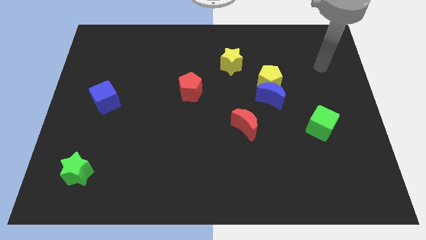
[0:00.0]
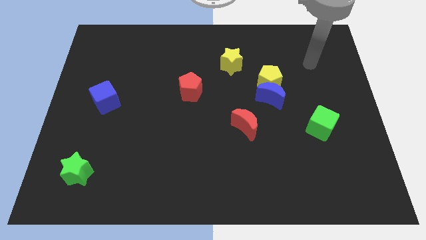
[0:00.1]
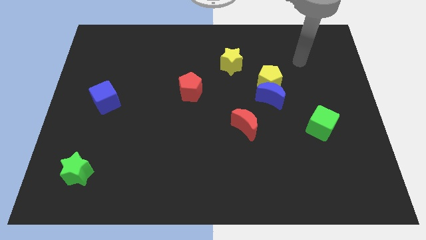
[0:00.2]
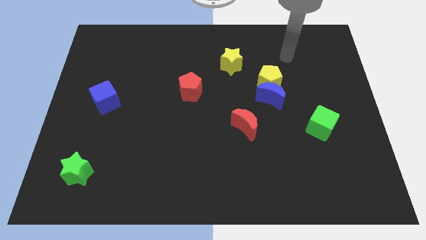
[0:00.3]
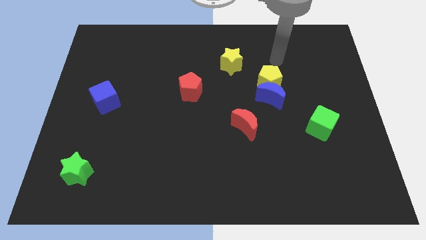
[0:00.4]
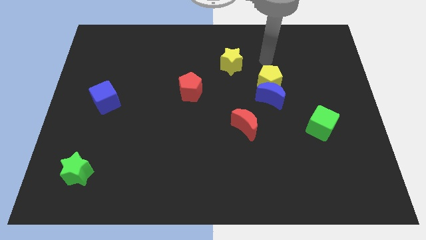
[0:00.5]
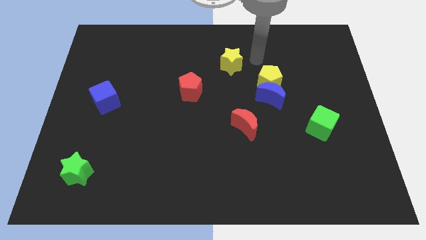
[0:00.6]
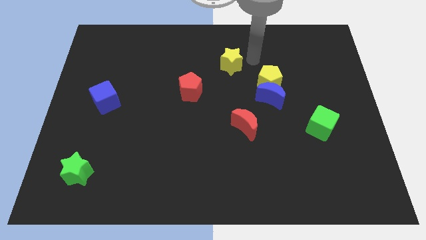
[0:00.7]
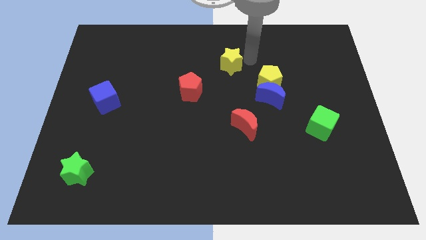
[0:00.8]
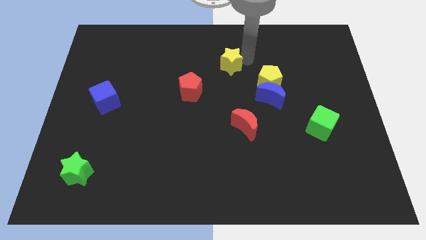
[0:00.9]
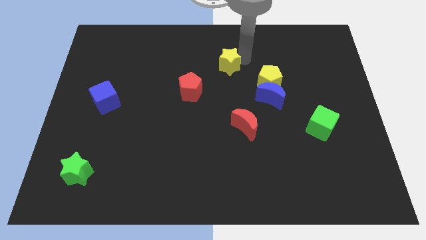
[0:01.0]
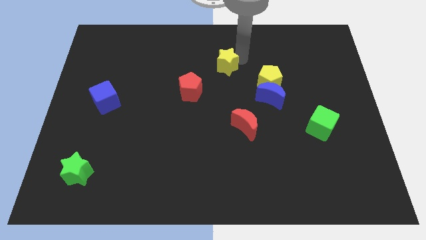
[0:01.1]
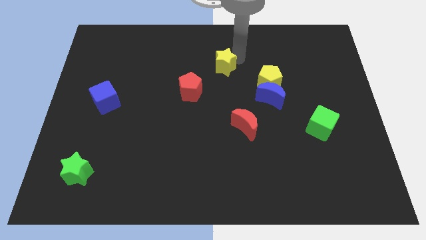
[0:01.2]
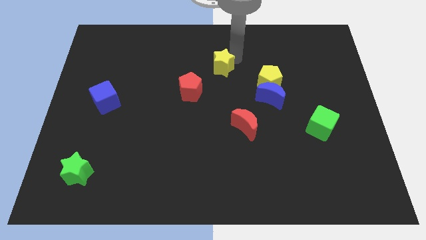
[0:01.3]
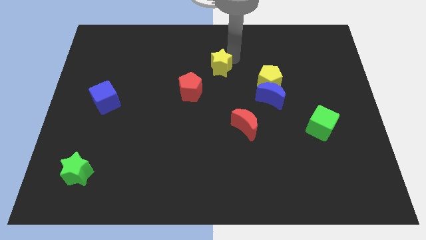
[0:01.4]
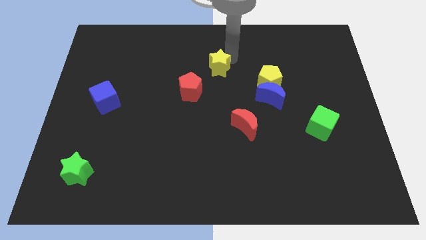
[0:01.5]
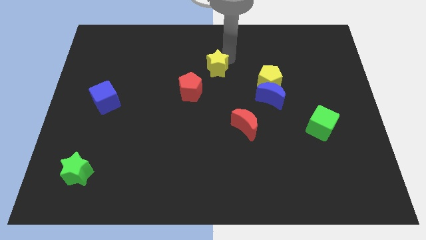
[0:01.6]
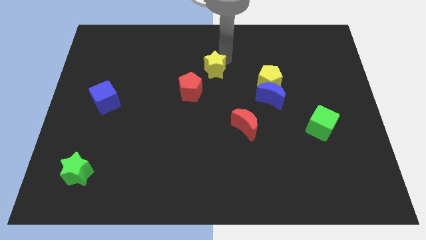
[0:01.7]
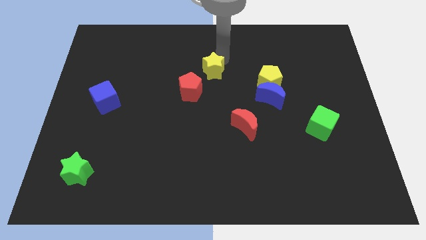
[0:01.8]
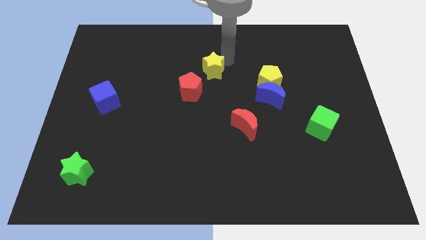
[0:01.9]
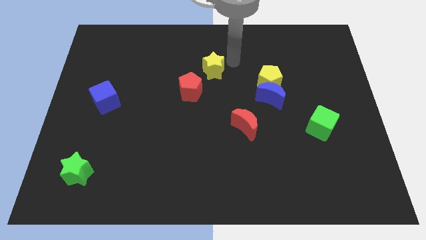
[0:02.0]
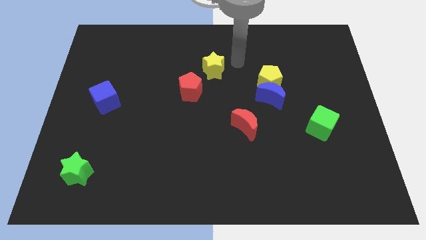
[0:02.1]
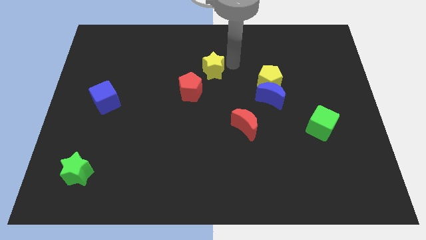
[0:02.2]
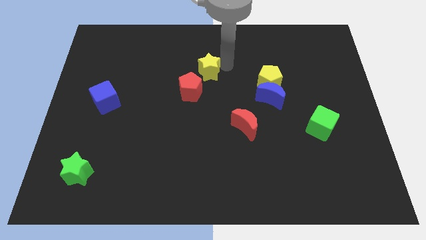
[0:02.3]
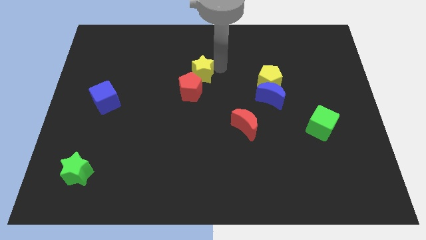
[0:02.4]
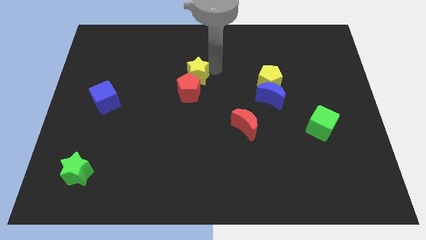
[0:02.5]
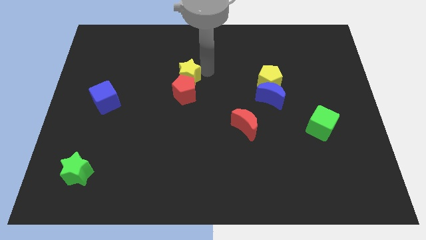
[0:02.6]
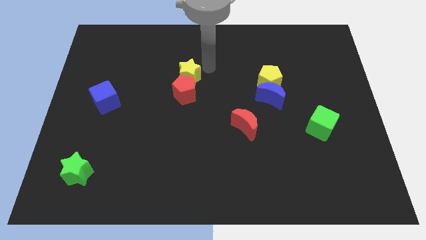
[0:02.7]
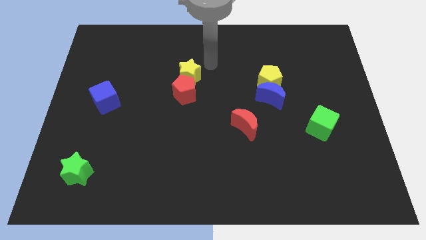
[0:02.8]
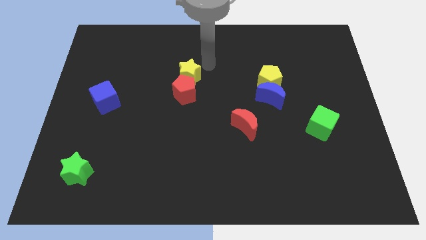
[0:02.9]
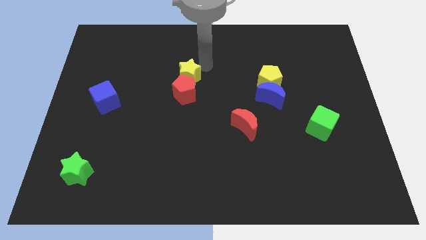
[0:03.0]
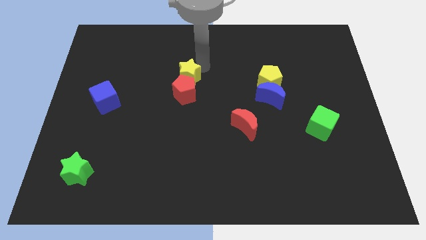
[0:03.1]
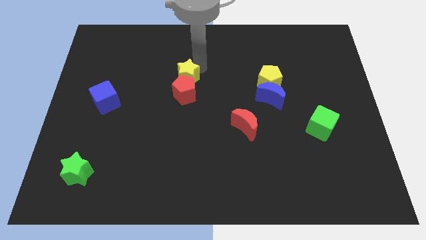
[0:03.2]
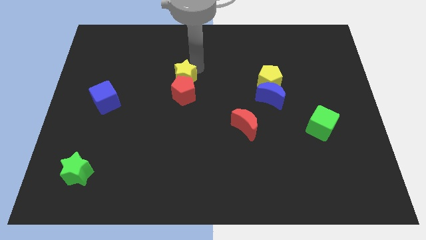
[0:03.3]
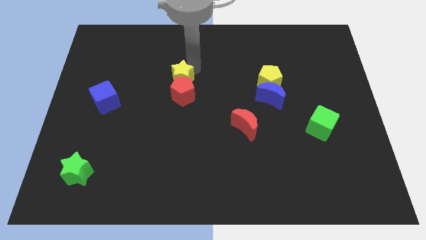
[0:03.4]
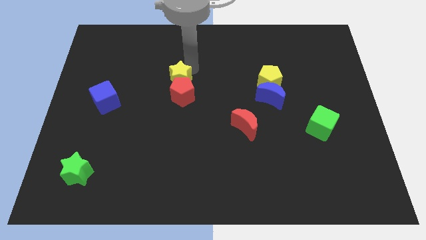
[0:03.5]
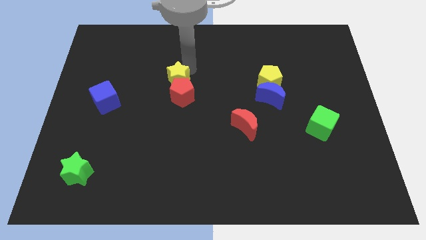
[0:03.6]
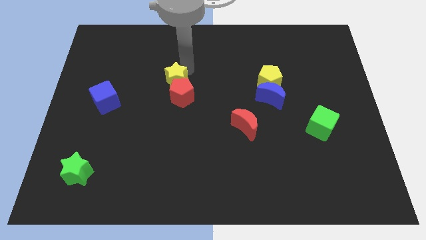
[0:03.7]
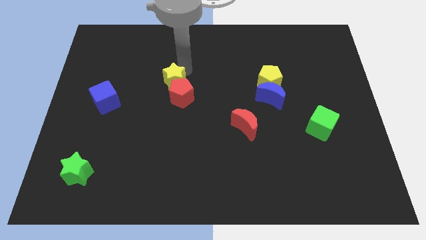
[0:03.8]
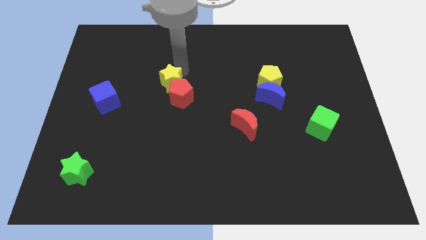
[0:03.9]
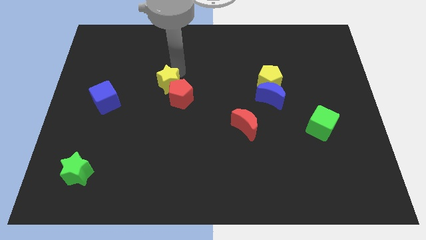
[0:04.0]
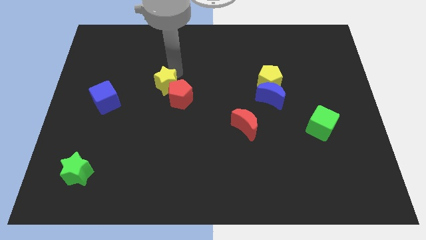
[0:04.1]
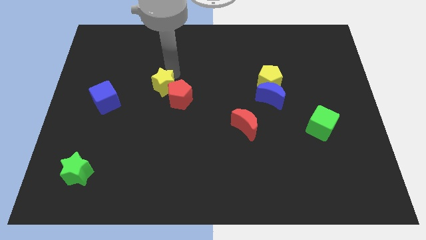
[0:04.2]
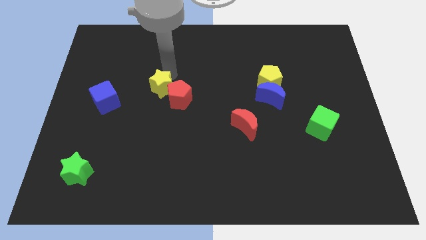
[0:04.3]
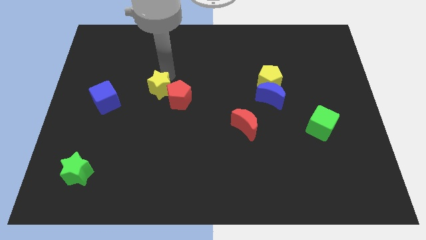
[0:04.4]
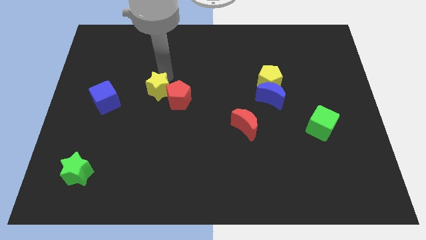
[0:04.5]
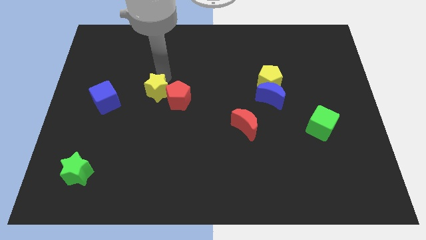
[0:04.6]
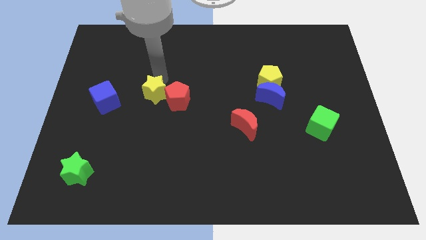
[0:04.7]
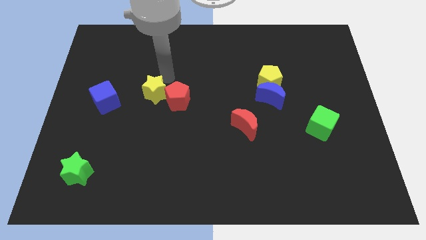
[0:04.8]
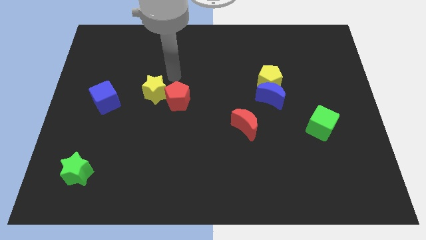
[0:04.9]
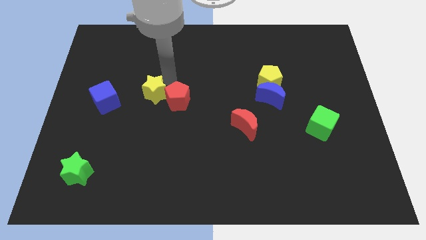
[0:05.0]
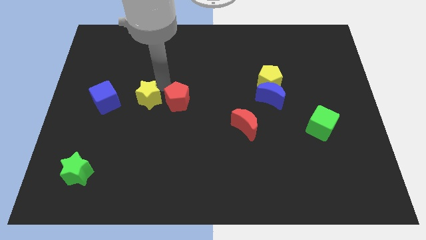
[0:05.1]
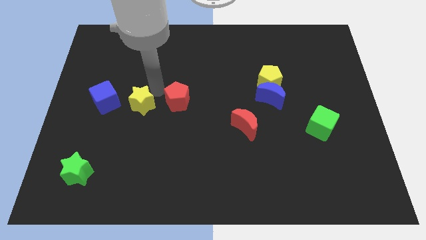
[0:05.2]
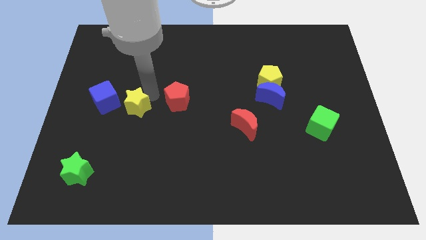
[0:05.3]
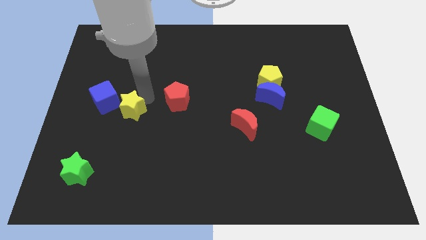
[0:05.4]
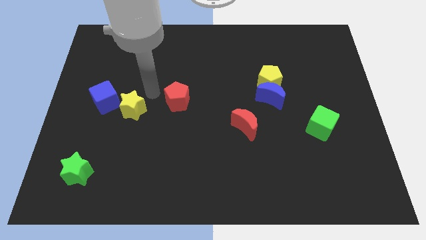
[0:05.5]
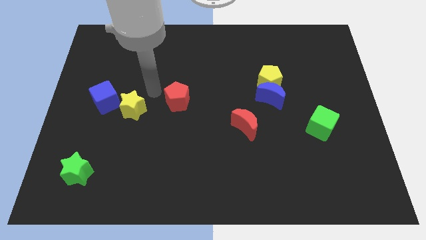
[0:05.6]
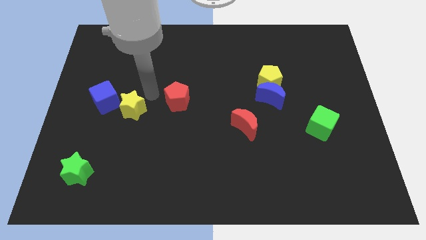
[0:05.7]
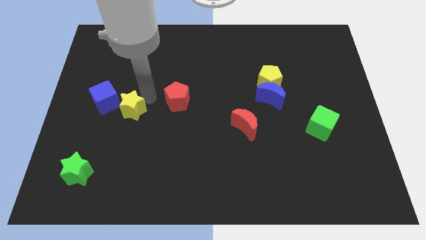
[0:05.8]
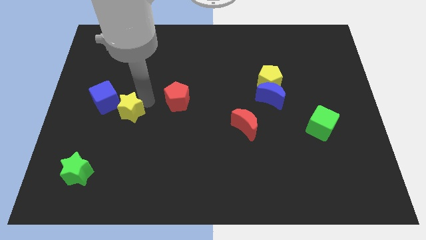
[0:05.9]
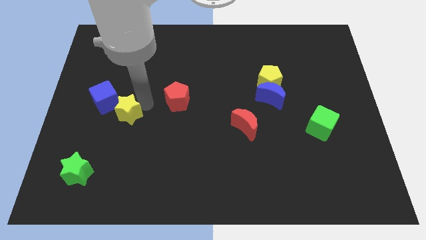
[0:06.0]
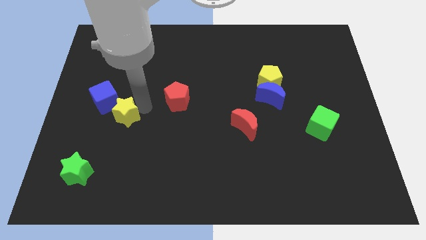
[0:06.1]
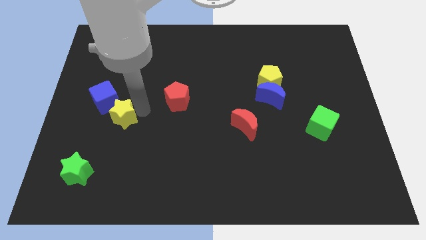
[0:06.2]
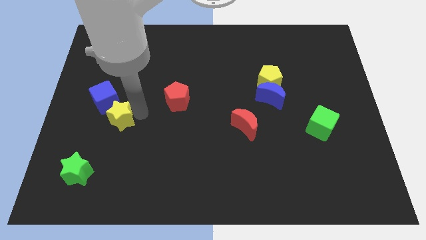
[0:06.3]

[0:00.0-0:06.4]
move the yellow star below the blue cube
